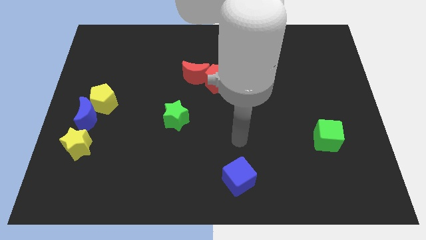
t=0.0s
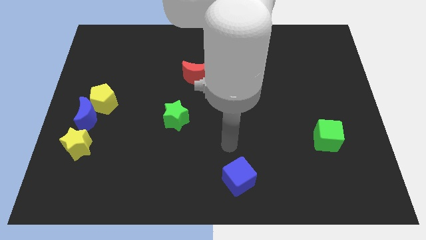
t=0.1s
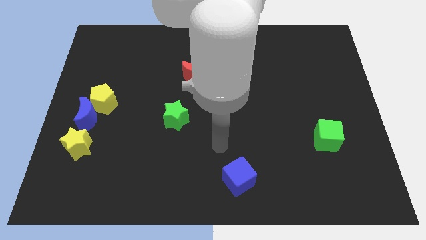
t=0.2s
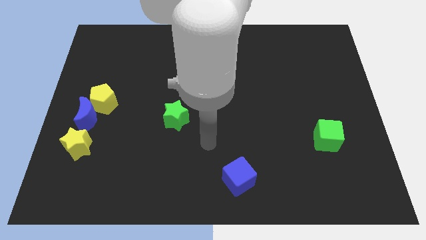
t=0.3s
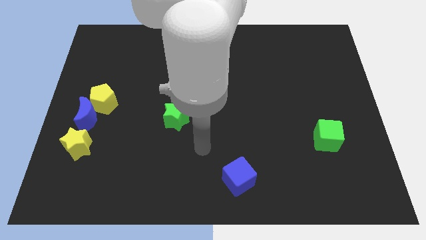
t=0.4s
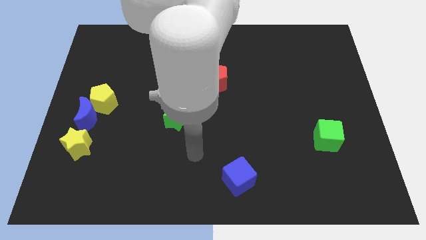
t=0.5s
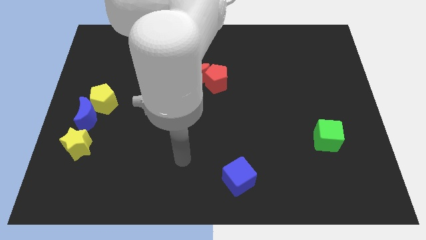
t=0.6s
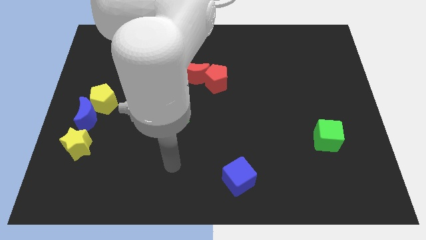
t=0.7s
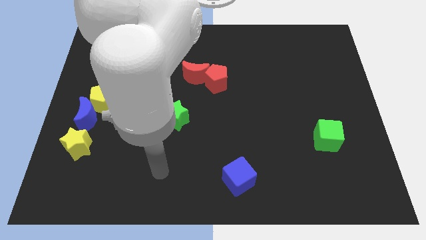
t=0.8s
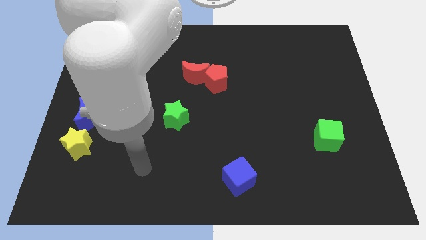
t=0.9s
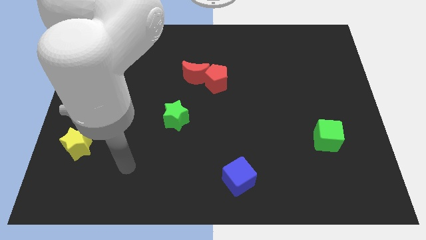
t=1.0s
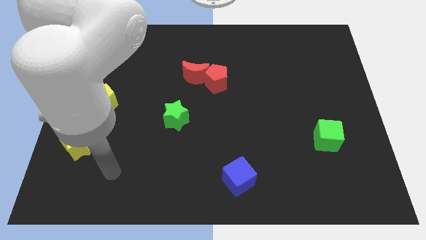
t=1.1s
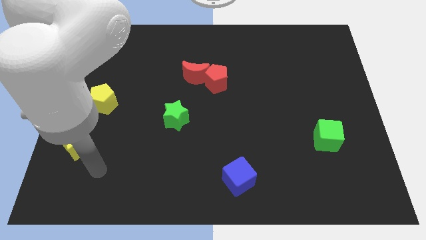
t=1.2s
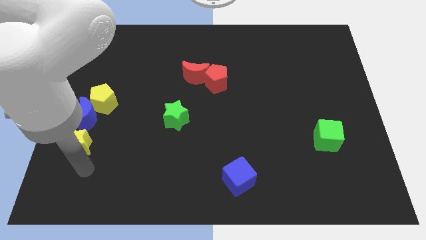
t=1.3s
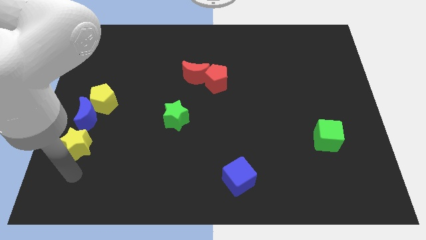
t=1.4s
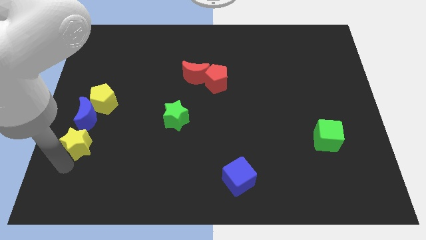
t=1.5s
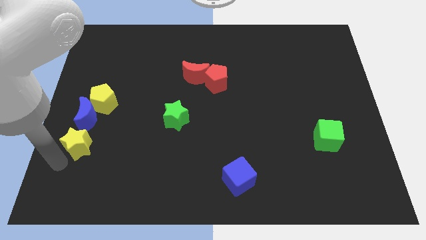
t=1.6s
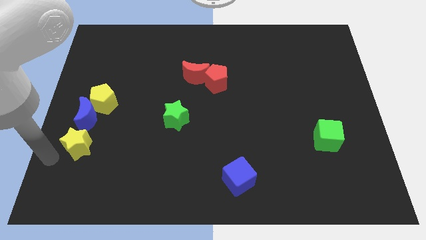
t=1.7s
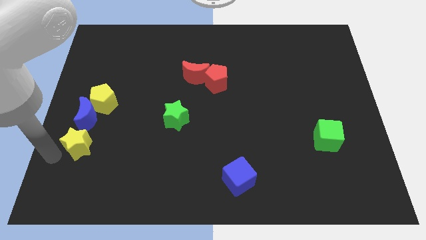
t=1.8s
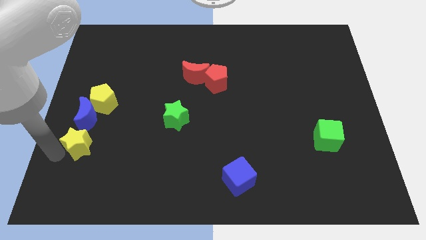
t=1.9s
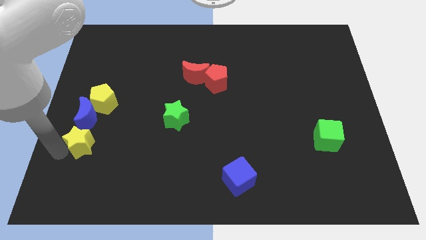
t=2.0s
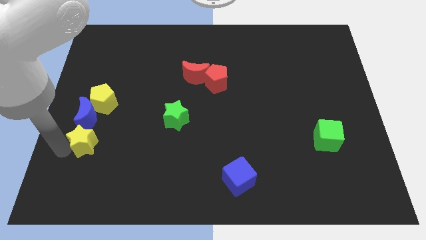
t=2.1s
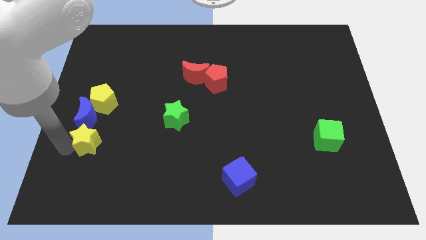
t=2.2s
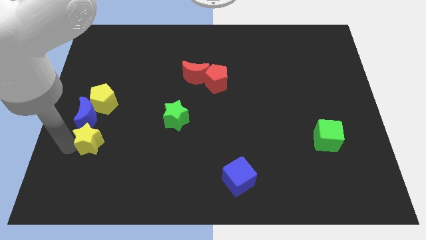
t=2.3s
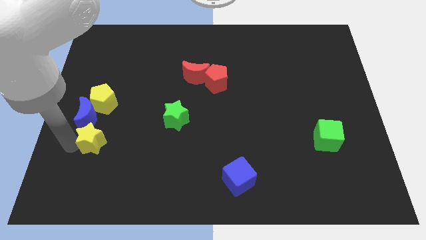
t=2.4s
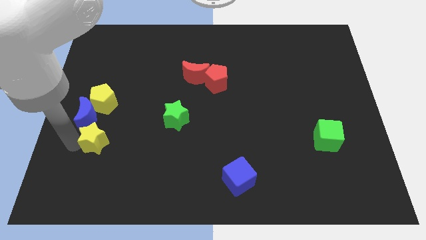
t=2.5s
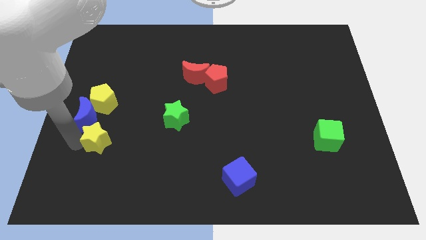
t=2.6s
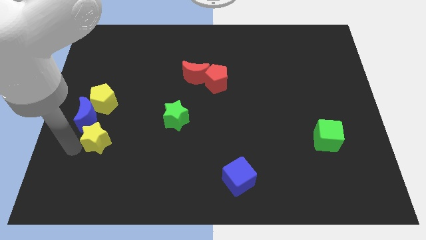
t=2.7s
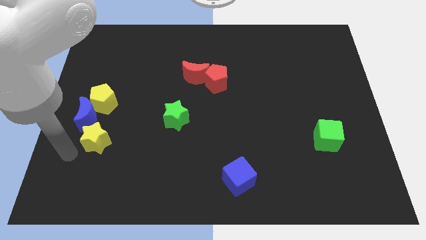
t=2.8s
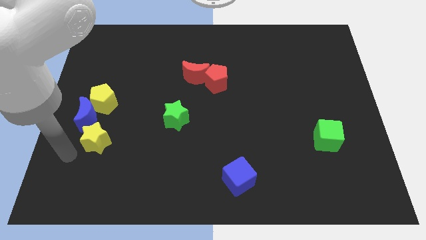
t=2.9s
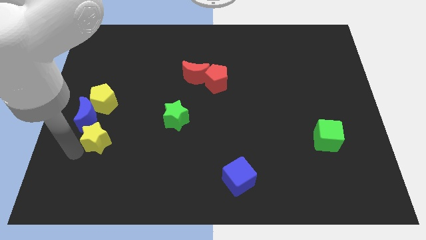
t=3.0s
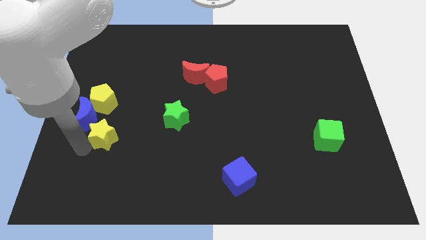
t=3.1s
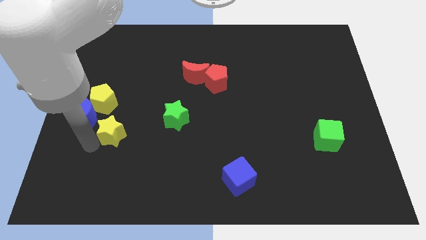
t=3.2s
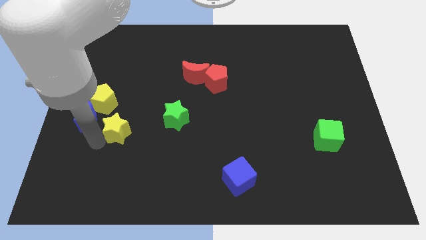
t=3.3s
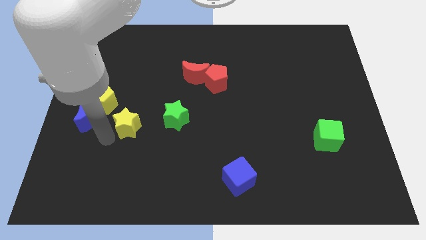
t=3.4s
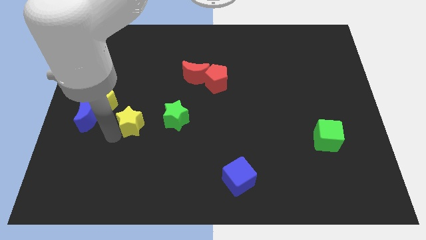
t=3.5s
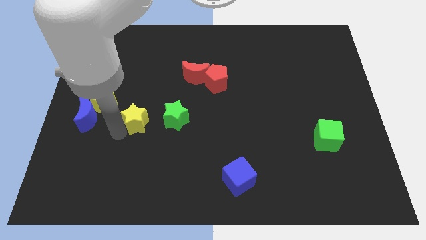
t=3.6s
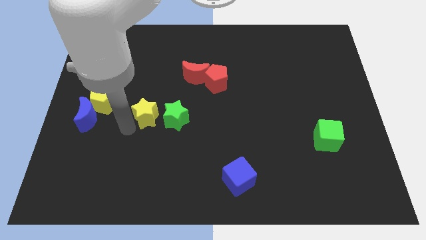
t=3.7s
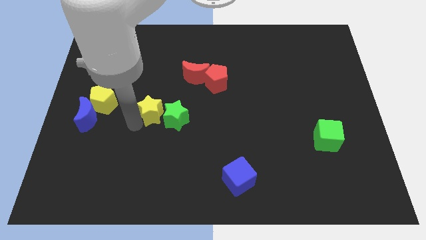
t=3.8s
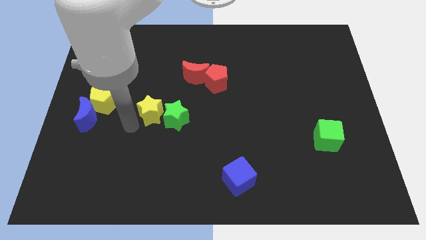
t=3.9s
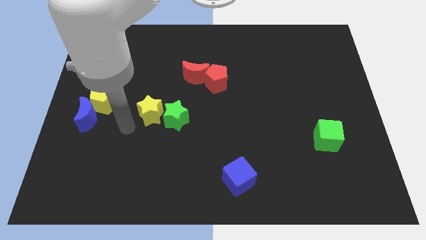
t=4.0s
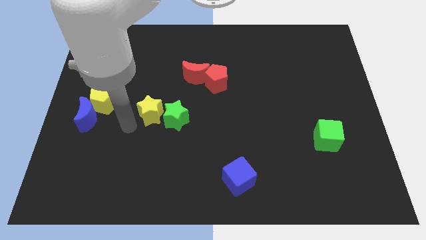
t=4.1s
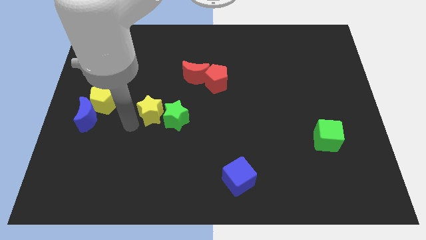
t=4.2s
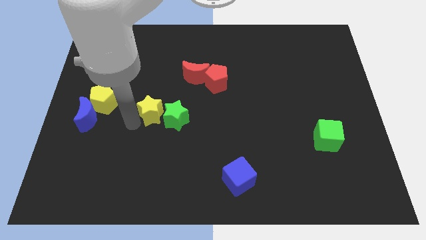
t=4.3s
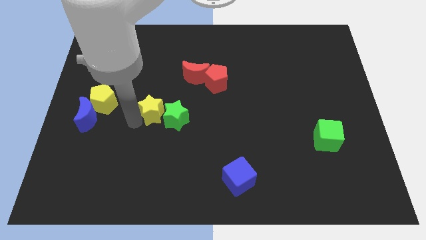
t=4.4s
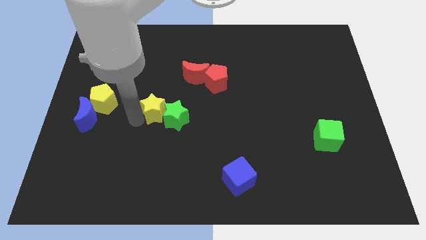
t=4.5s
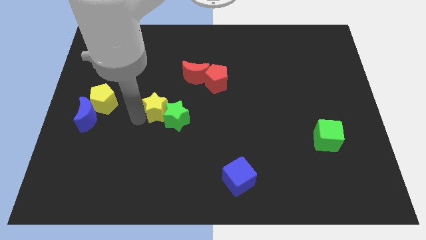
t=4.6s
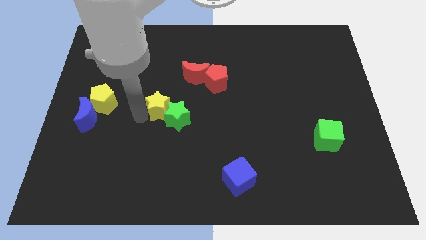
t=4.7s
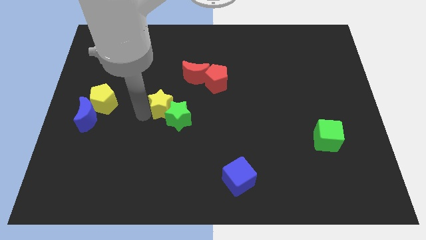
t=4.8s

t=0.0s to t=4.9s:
push the yellow star to the middle of the board

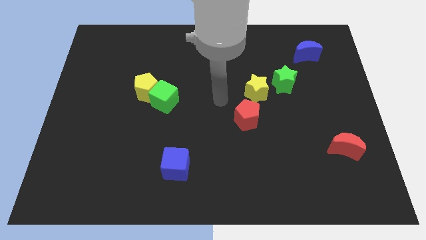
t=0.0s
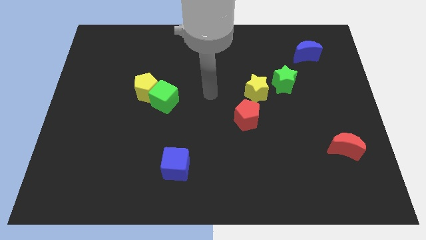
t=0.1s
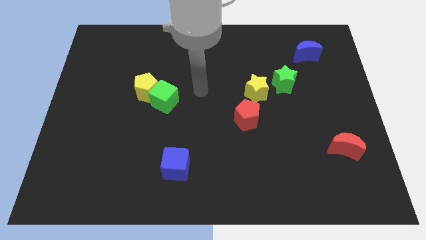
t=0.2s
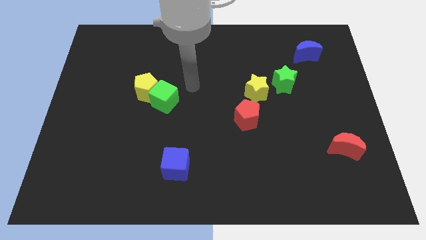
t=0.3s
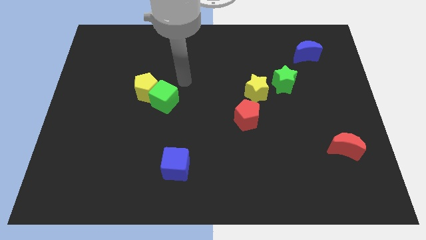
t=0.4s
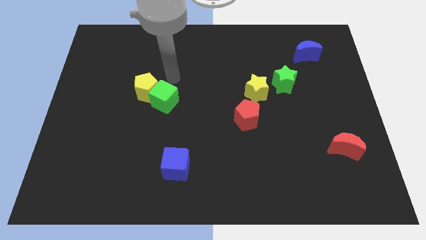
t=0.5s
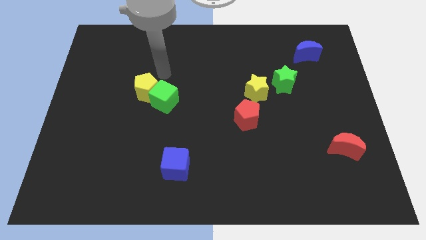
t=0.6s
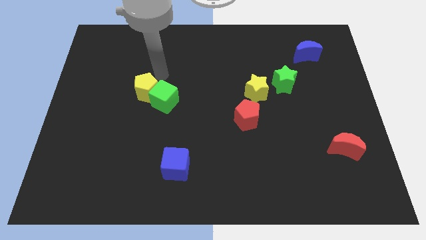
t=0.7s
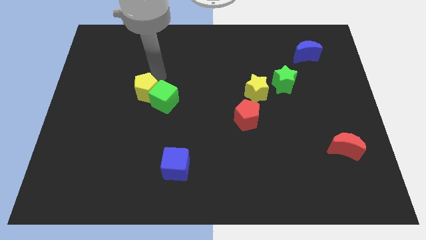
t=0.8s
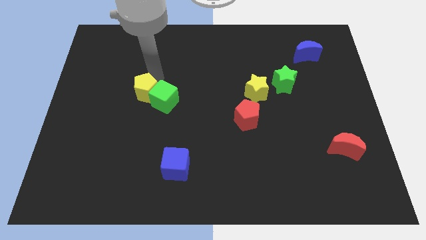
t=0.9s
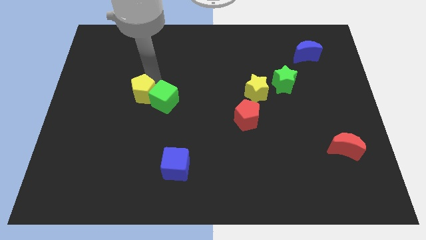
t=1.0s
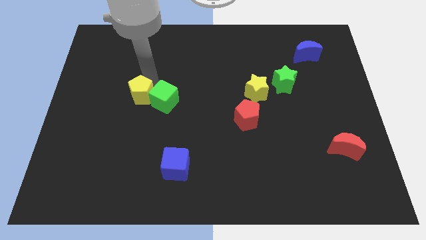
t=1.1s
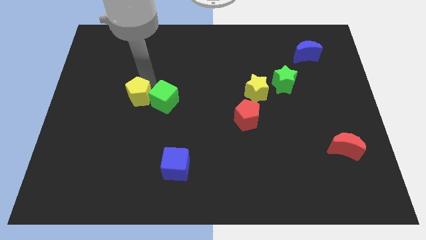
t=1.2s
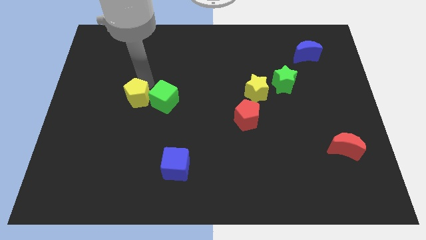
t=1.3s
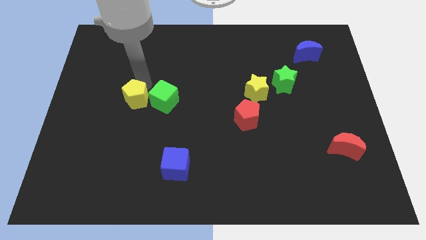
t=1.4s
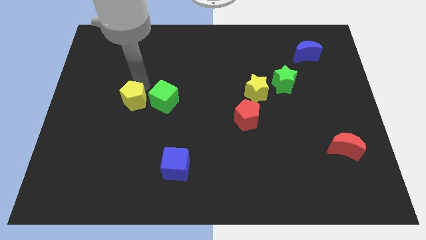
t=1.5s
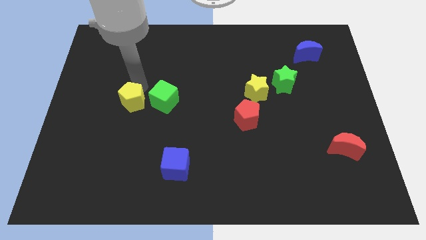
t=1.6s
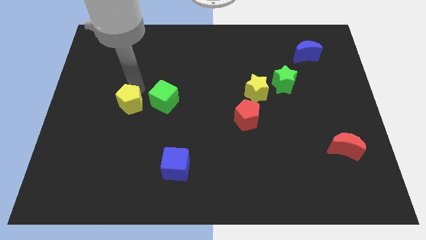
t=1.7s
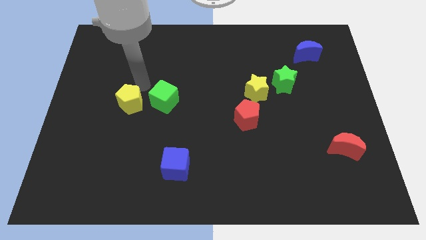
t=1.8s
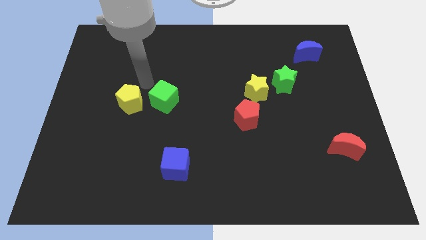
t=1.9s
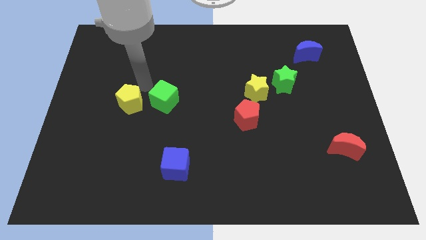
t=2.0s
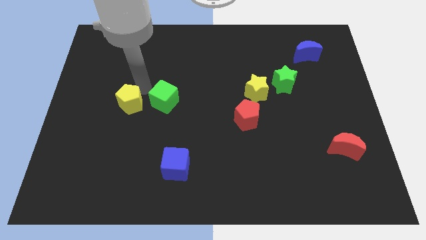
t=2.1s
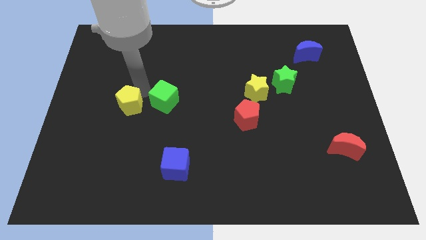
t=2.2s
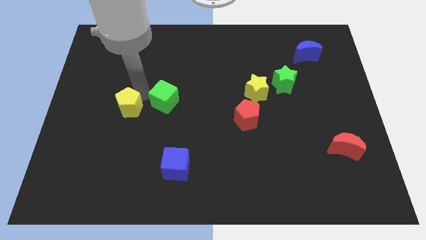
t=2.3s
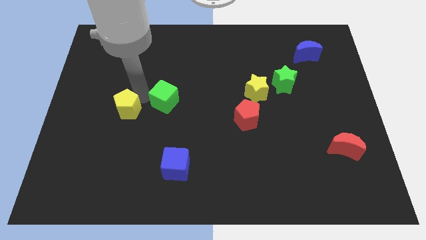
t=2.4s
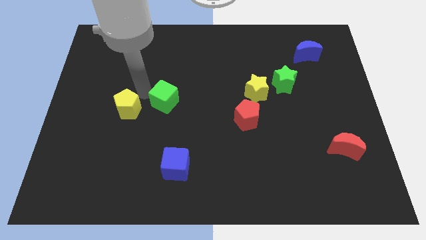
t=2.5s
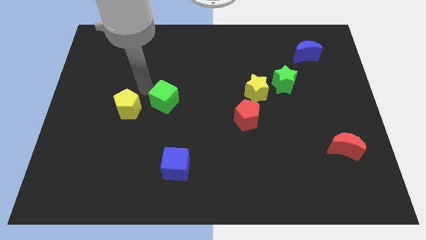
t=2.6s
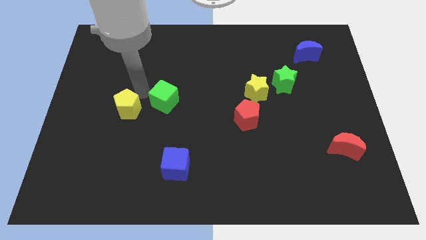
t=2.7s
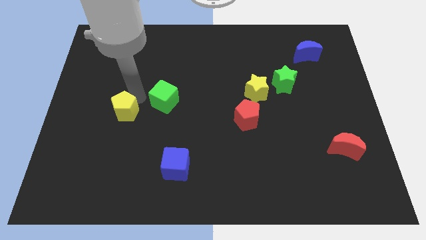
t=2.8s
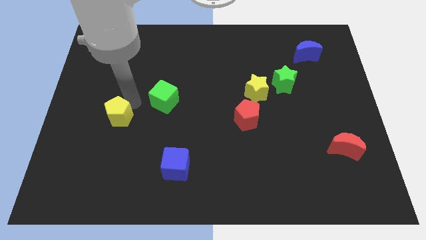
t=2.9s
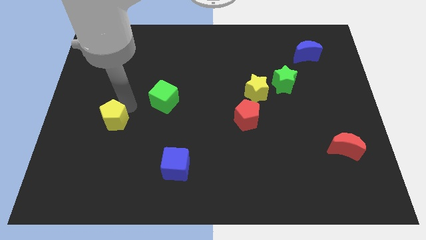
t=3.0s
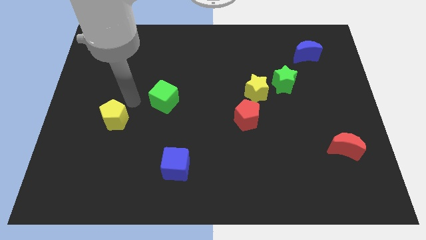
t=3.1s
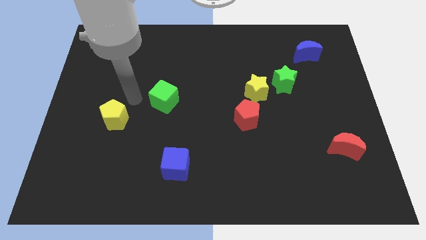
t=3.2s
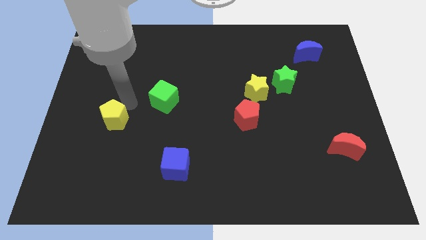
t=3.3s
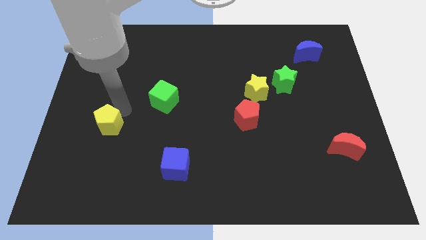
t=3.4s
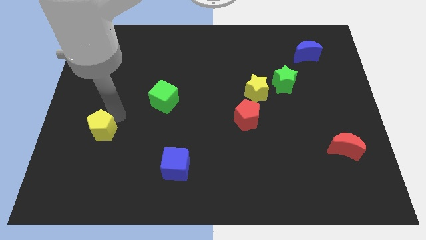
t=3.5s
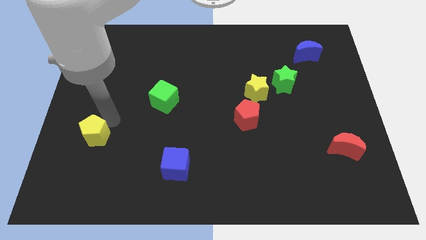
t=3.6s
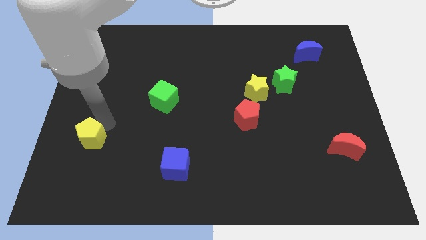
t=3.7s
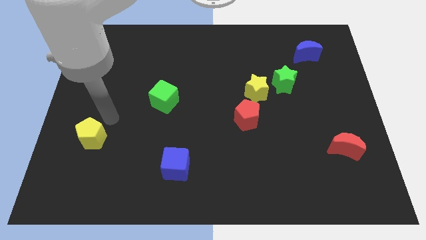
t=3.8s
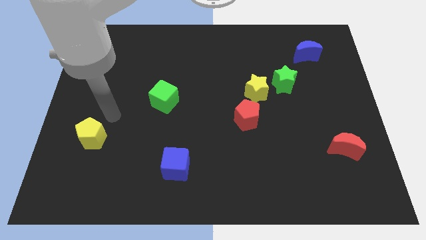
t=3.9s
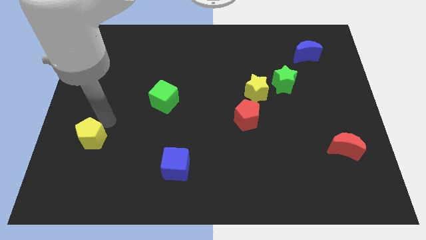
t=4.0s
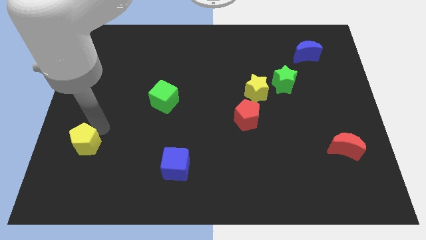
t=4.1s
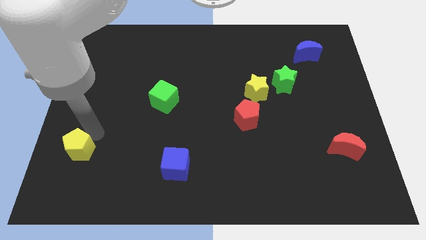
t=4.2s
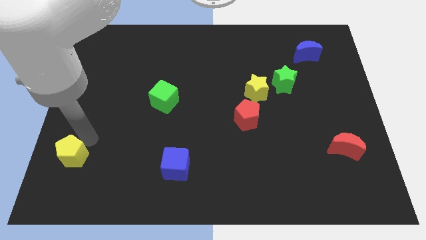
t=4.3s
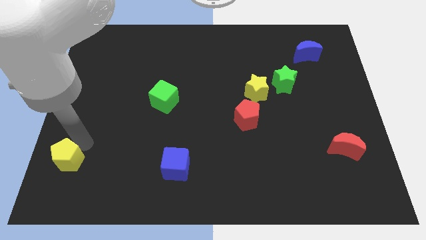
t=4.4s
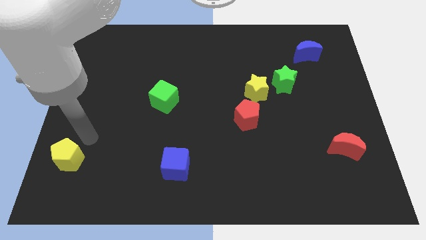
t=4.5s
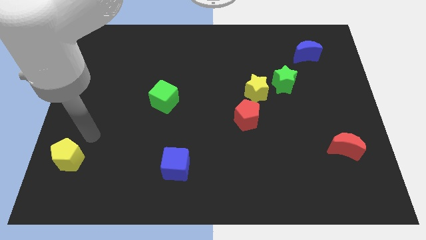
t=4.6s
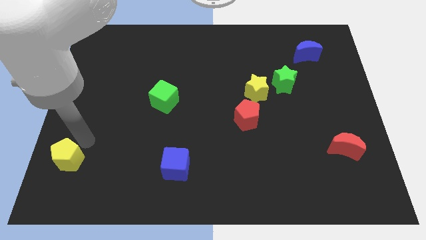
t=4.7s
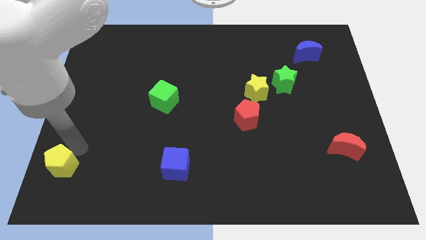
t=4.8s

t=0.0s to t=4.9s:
push the yellow pentagon to the bottom left
